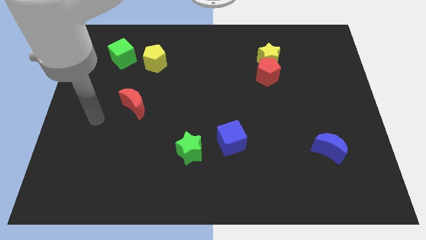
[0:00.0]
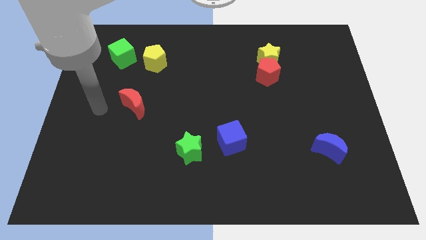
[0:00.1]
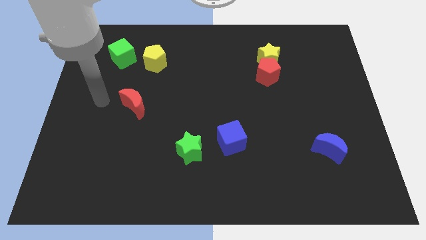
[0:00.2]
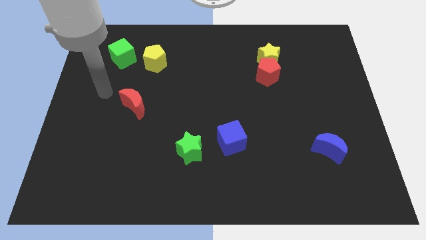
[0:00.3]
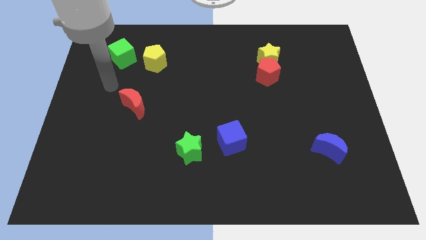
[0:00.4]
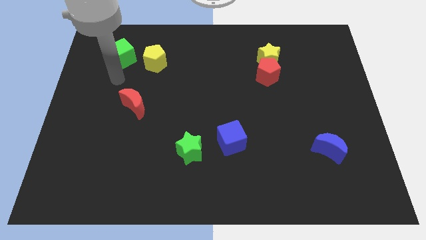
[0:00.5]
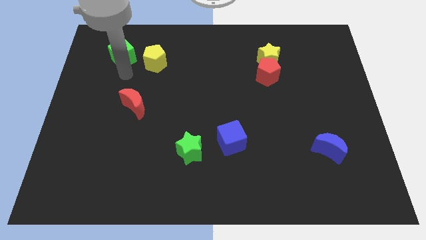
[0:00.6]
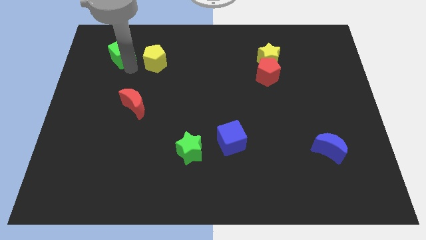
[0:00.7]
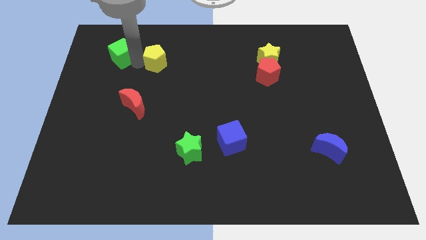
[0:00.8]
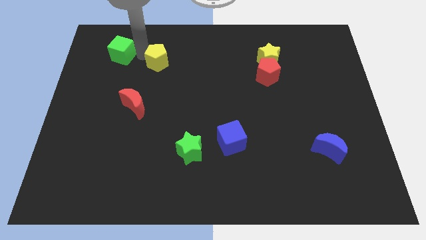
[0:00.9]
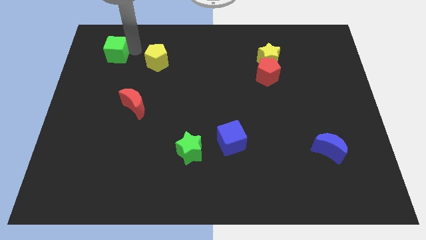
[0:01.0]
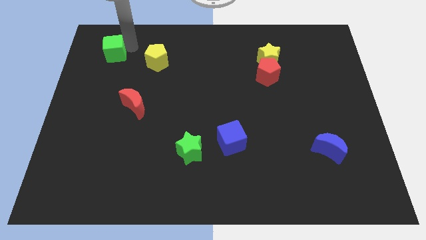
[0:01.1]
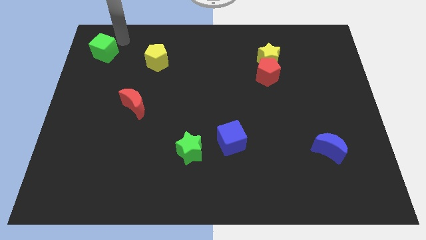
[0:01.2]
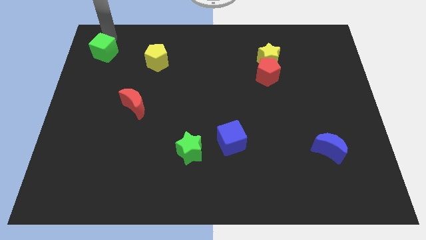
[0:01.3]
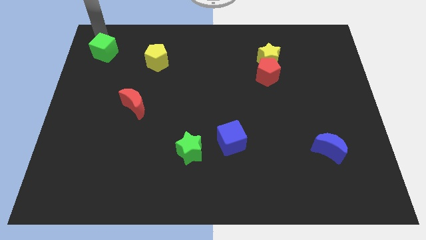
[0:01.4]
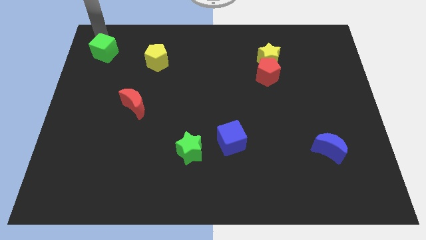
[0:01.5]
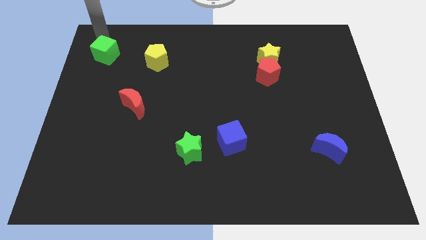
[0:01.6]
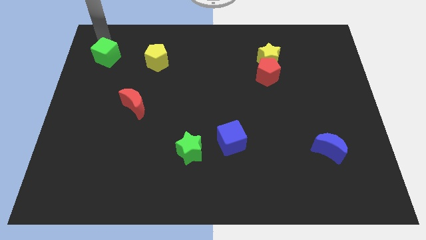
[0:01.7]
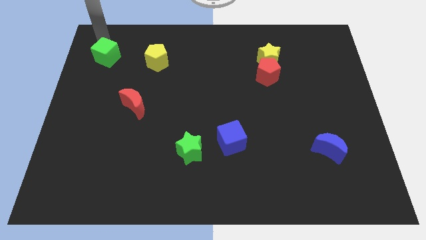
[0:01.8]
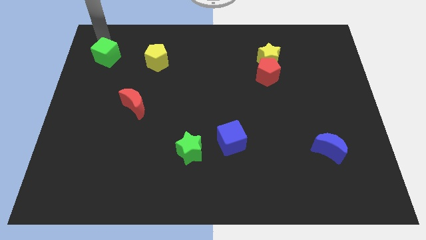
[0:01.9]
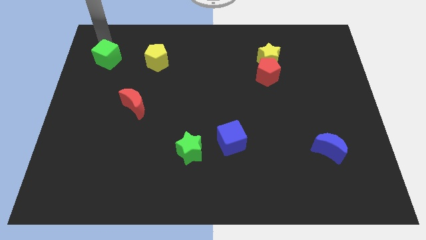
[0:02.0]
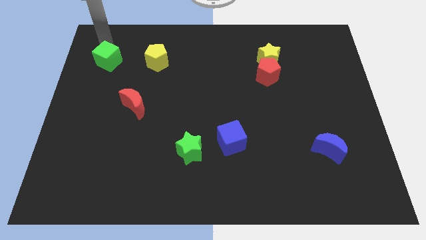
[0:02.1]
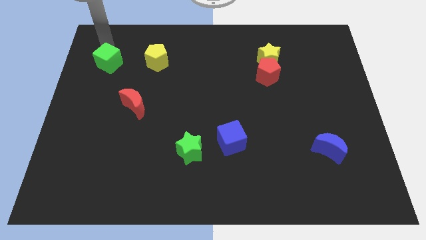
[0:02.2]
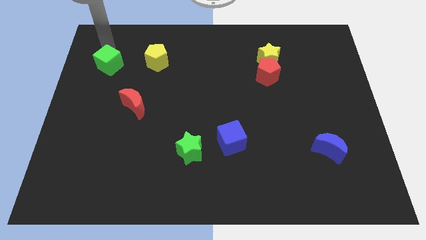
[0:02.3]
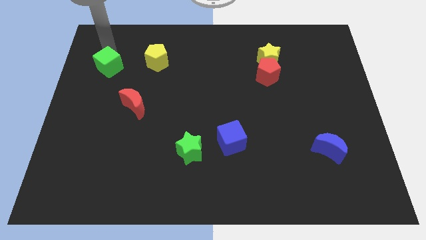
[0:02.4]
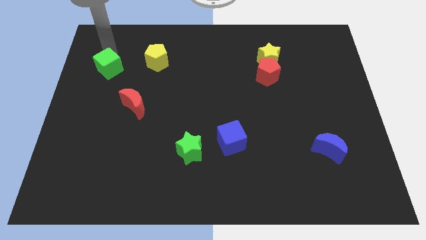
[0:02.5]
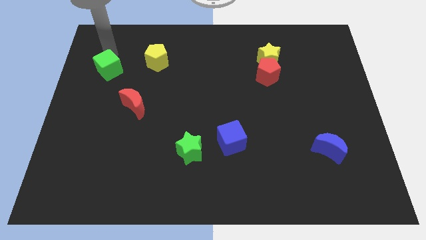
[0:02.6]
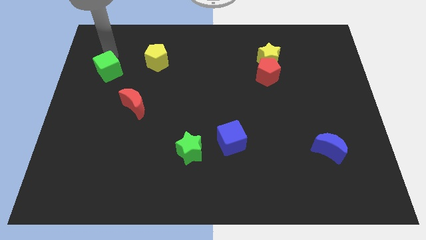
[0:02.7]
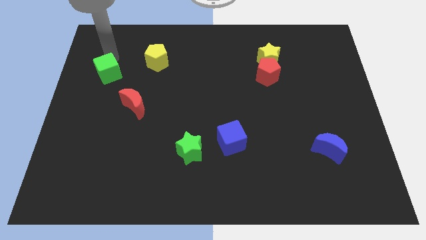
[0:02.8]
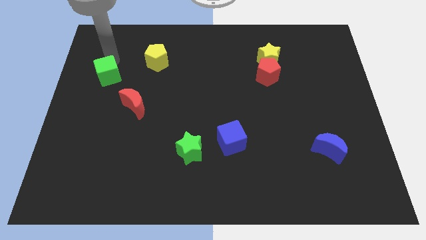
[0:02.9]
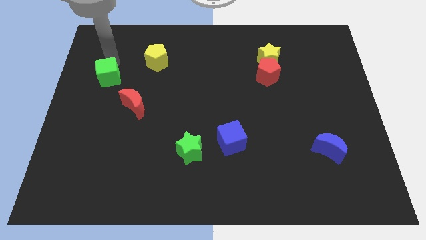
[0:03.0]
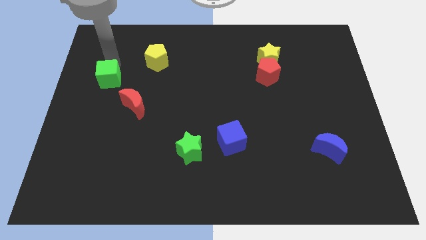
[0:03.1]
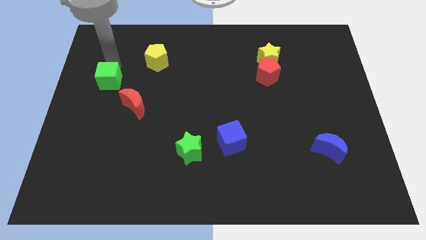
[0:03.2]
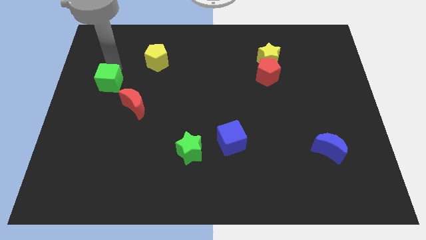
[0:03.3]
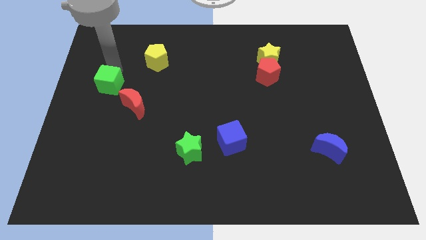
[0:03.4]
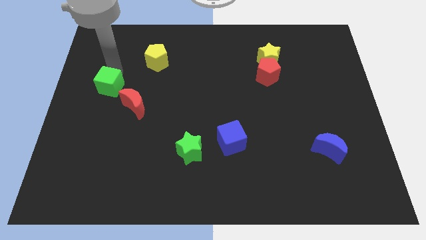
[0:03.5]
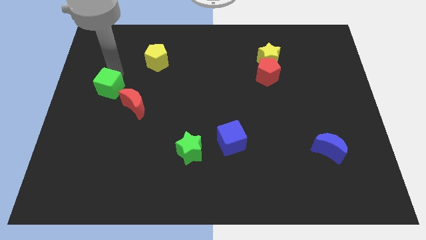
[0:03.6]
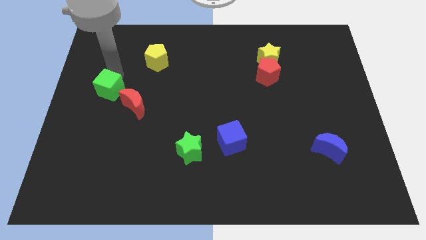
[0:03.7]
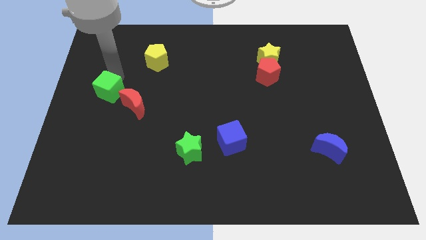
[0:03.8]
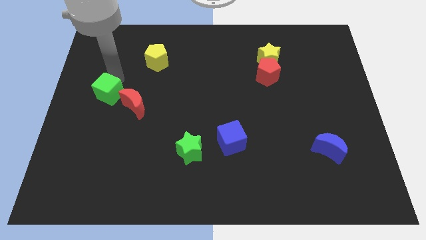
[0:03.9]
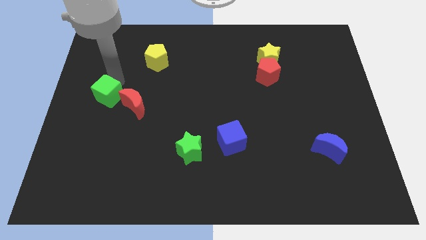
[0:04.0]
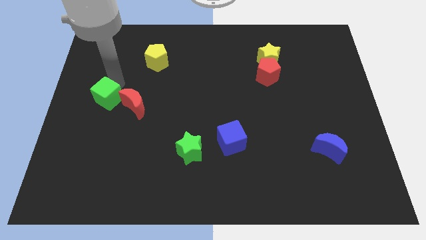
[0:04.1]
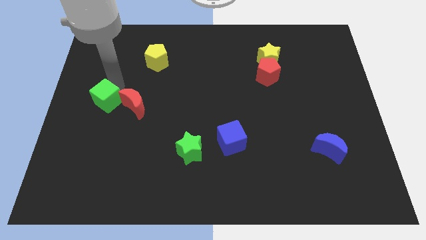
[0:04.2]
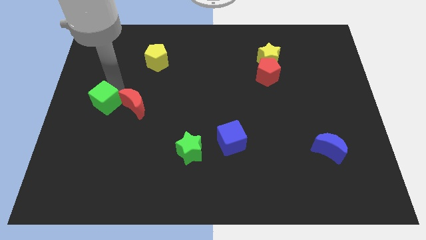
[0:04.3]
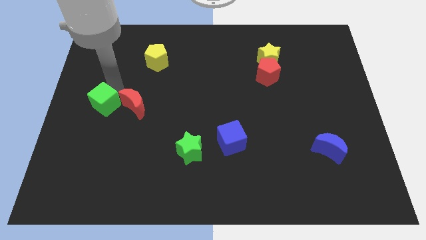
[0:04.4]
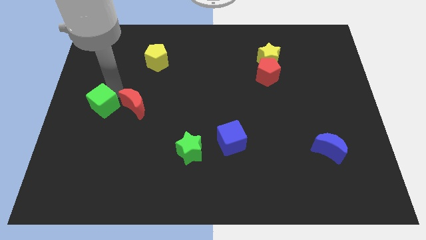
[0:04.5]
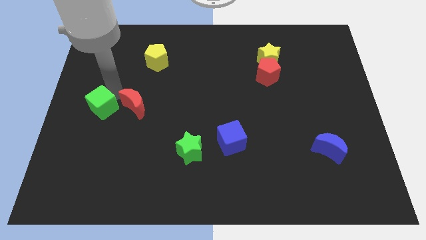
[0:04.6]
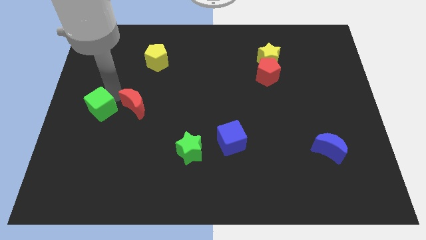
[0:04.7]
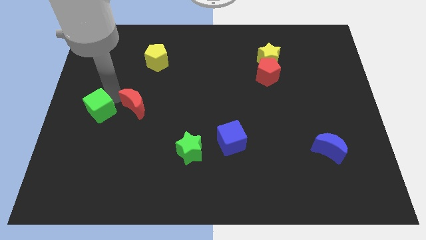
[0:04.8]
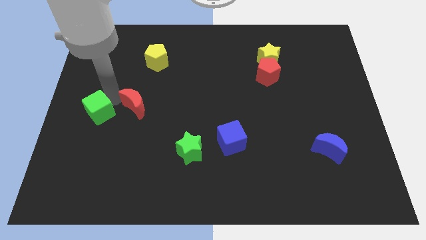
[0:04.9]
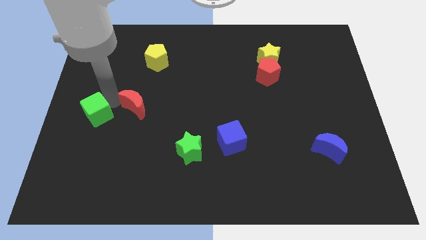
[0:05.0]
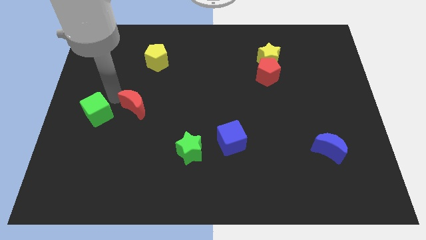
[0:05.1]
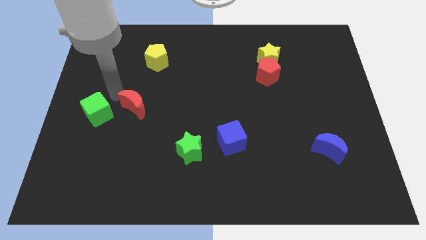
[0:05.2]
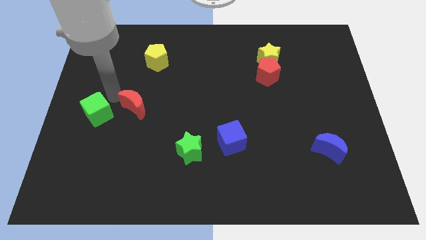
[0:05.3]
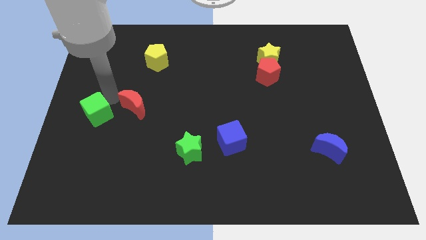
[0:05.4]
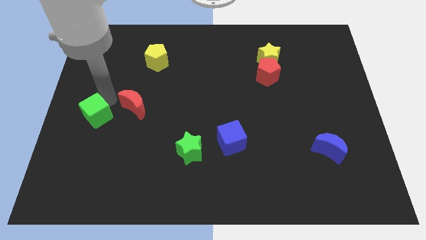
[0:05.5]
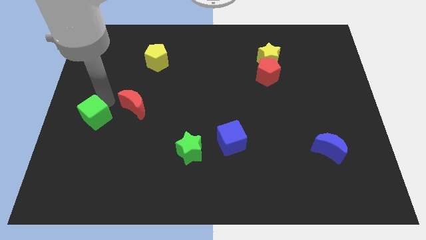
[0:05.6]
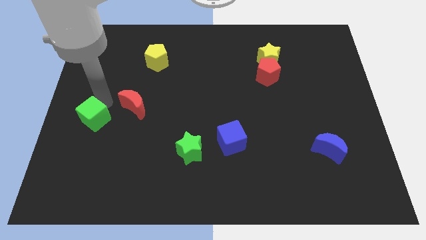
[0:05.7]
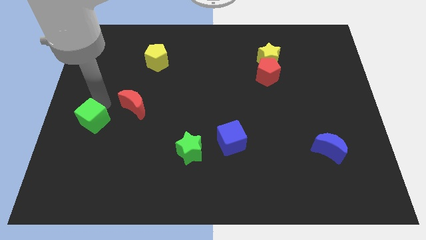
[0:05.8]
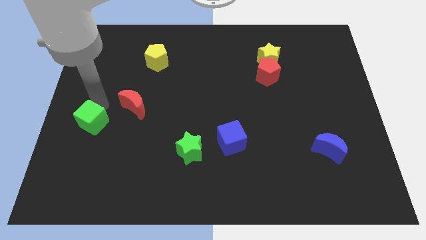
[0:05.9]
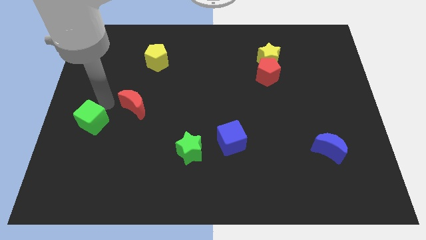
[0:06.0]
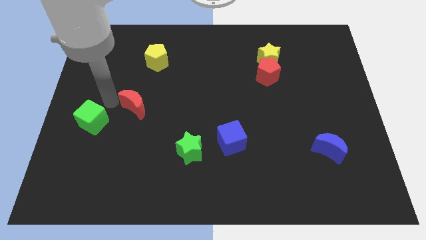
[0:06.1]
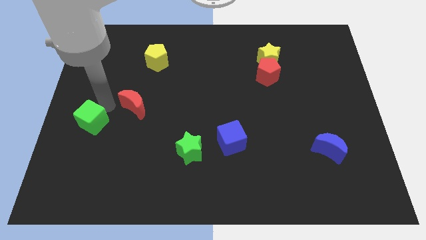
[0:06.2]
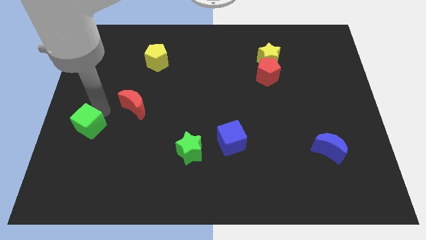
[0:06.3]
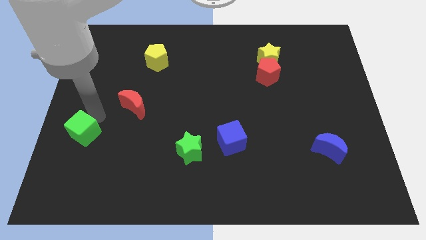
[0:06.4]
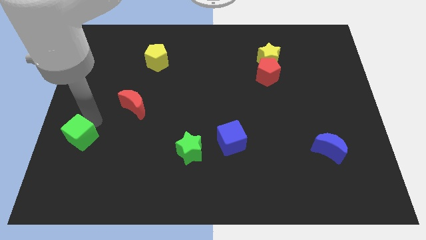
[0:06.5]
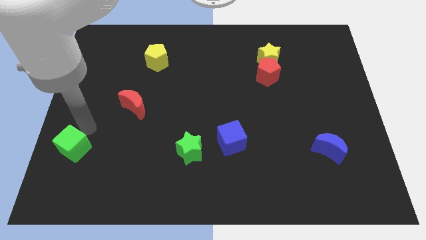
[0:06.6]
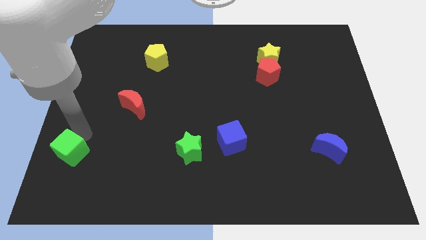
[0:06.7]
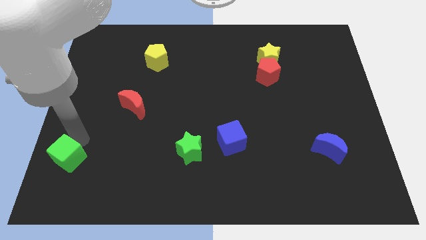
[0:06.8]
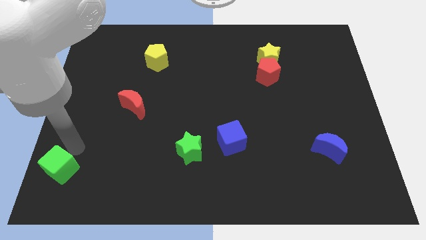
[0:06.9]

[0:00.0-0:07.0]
put the green cube to the bottom left of the board
